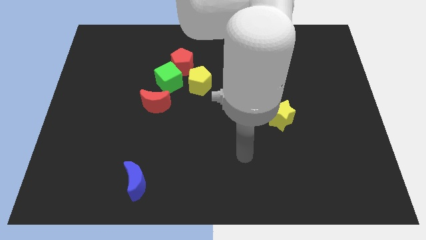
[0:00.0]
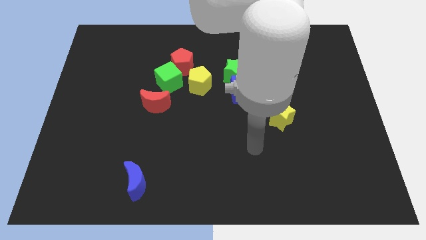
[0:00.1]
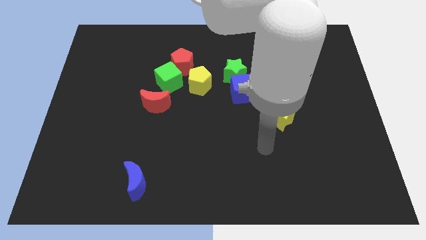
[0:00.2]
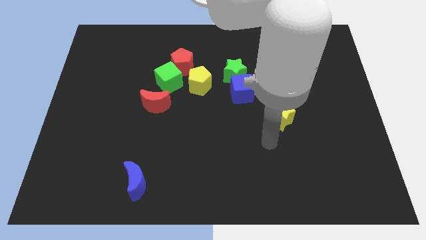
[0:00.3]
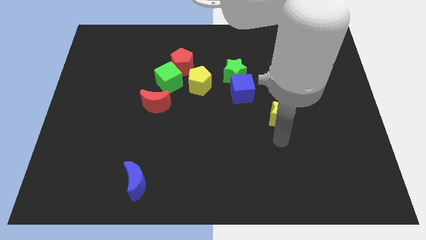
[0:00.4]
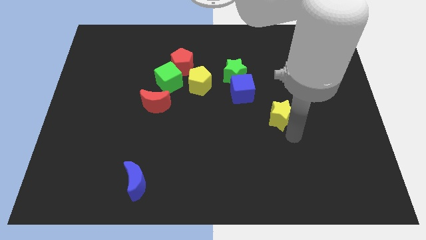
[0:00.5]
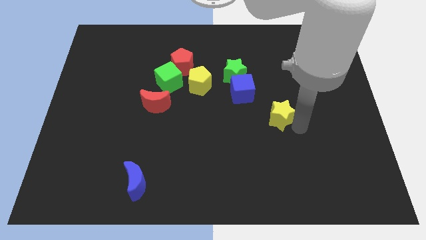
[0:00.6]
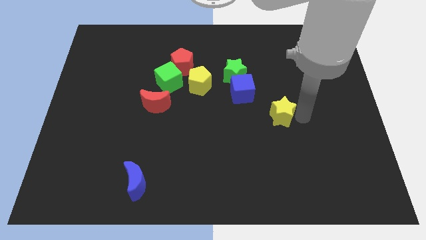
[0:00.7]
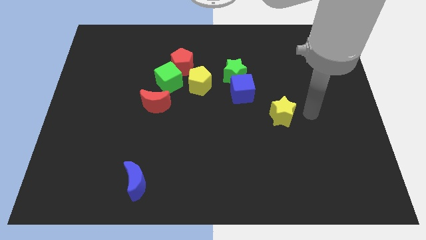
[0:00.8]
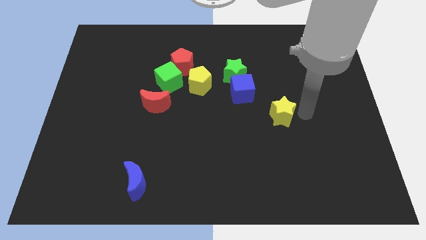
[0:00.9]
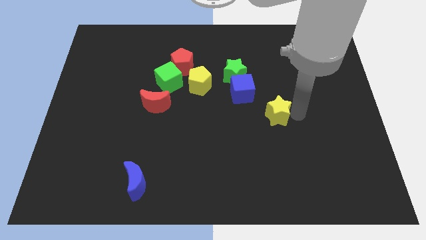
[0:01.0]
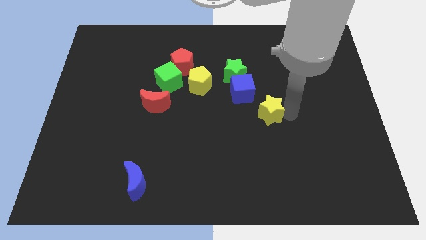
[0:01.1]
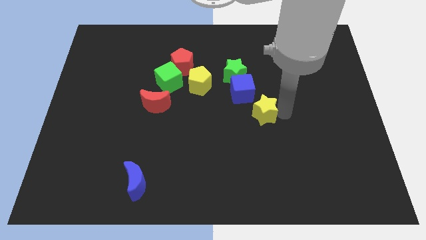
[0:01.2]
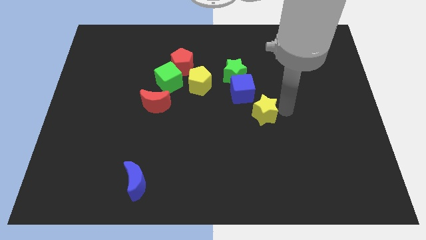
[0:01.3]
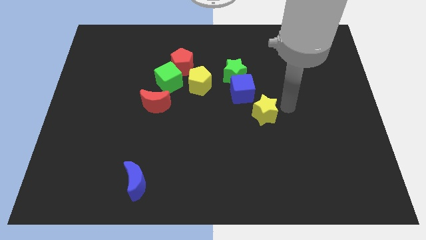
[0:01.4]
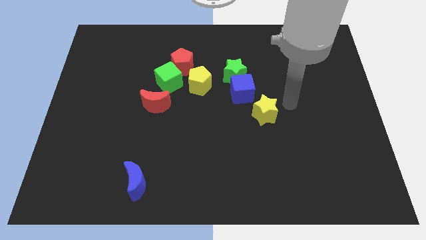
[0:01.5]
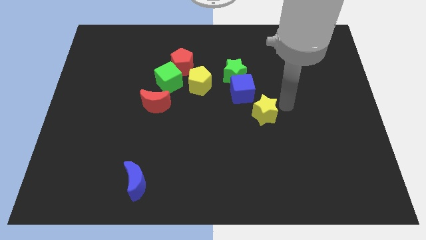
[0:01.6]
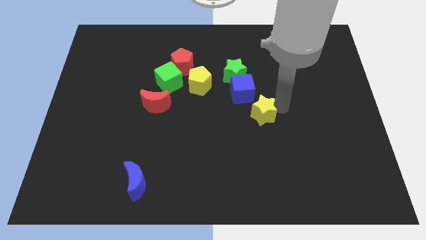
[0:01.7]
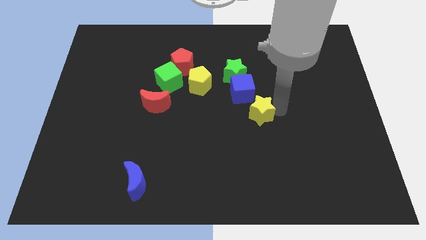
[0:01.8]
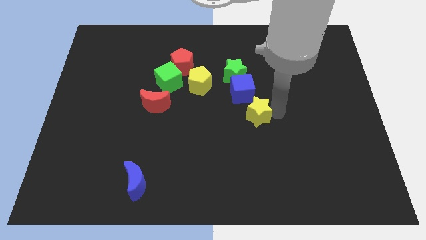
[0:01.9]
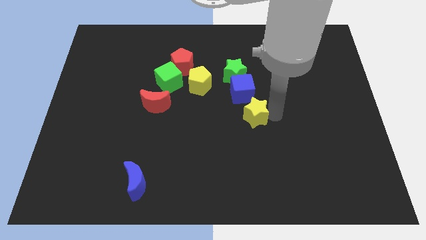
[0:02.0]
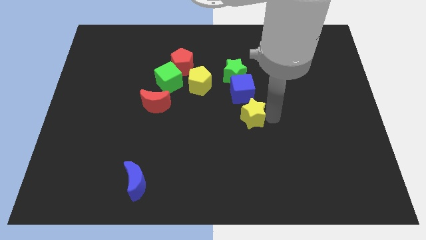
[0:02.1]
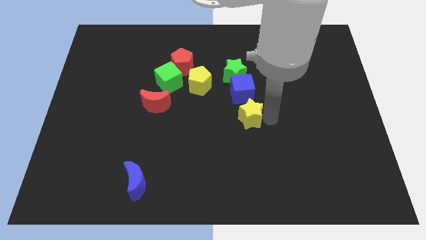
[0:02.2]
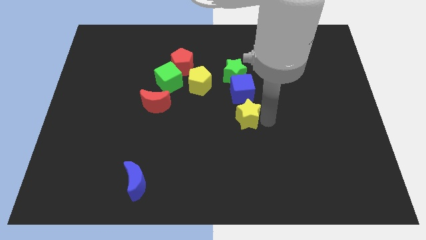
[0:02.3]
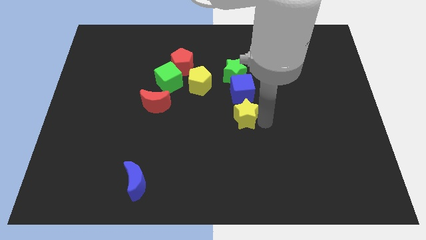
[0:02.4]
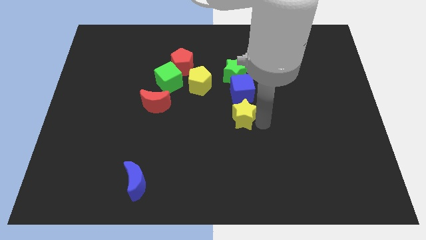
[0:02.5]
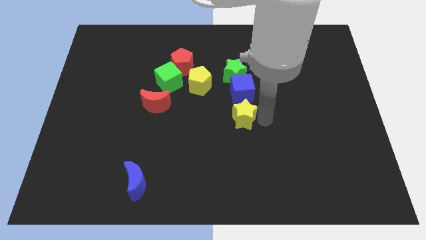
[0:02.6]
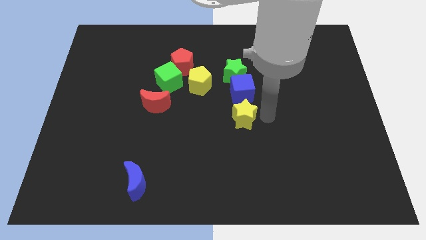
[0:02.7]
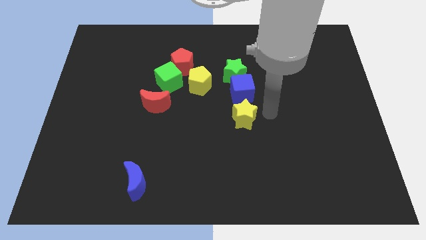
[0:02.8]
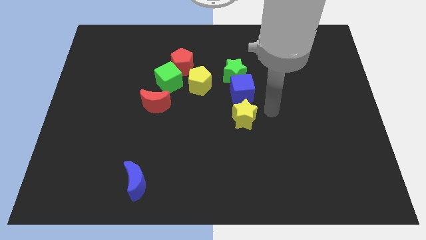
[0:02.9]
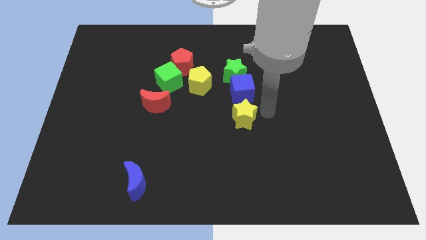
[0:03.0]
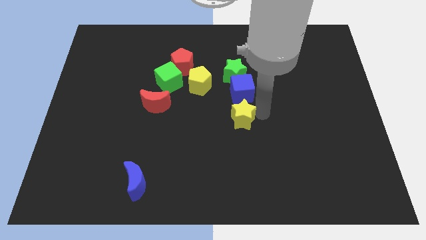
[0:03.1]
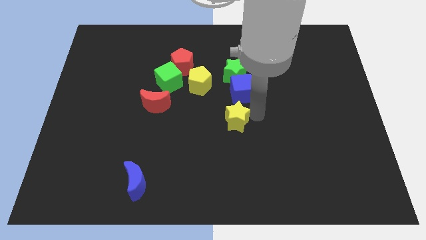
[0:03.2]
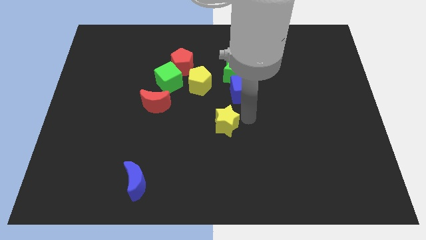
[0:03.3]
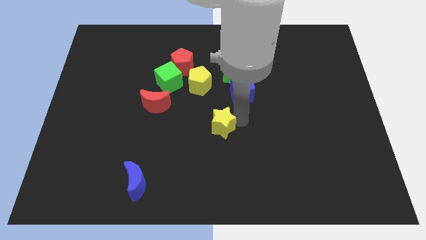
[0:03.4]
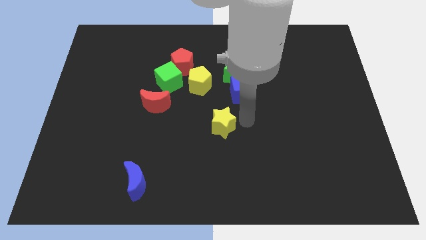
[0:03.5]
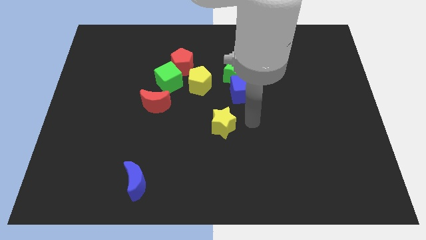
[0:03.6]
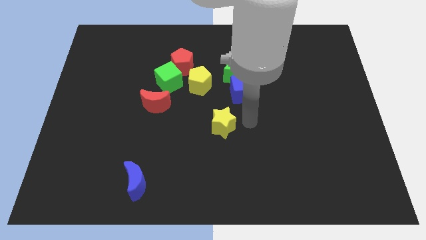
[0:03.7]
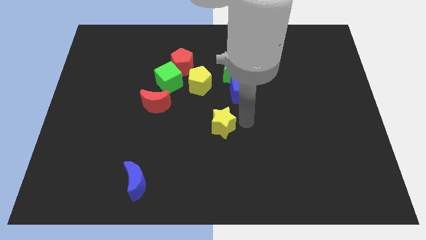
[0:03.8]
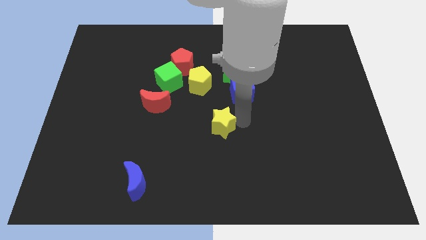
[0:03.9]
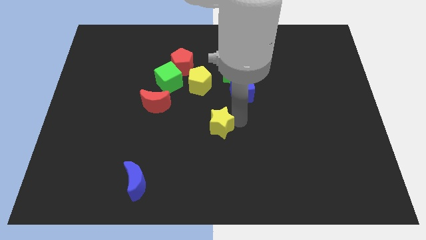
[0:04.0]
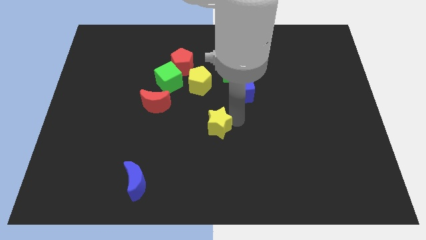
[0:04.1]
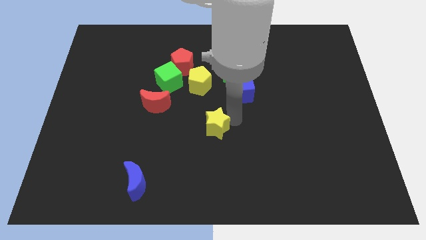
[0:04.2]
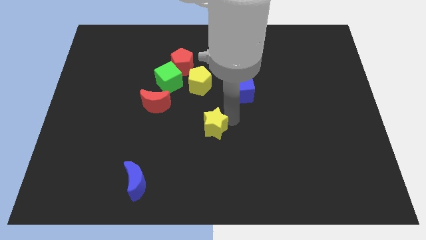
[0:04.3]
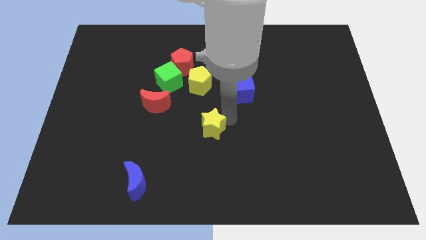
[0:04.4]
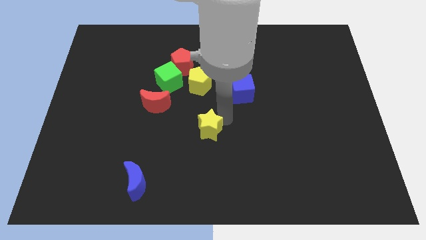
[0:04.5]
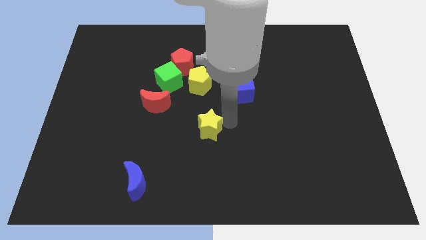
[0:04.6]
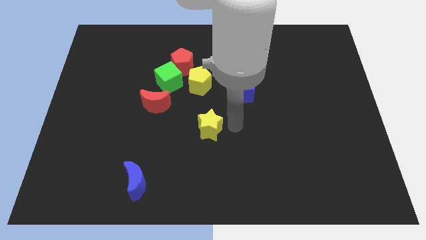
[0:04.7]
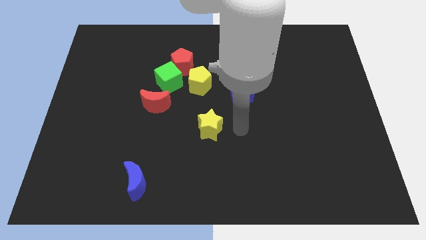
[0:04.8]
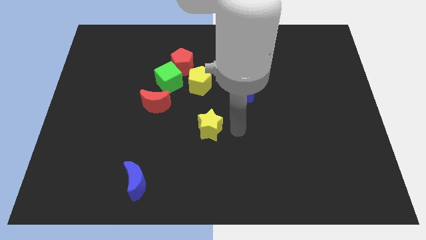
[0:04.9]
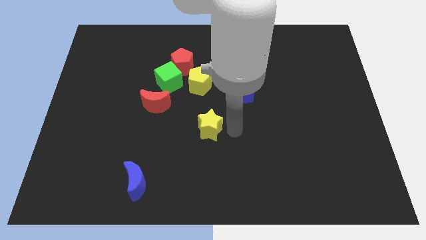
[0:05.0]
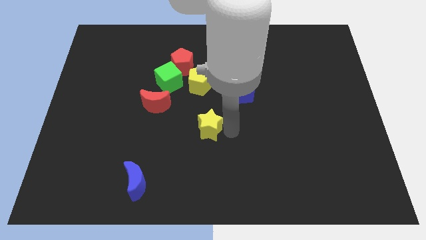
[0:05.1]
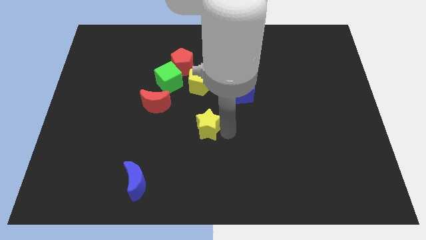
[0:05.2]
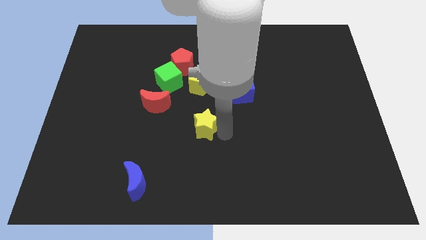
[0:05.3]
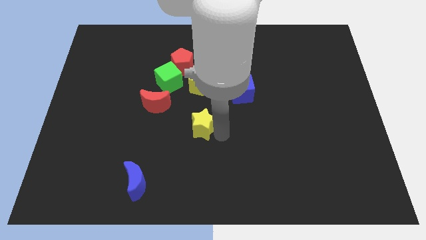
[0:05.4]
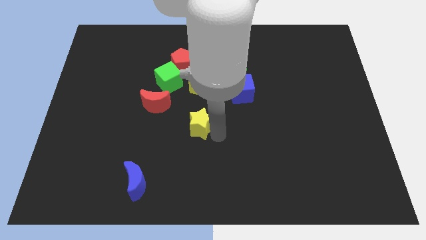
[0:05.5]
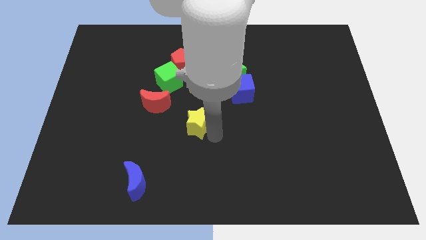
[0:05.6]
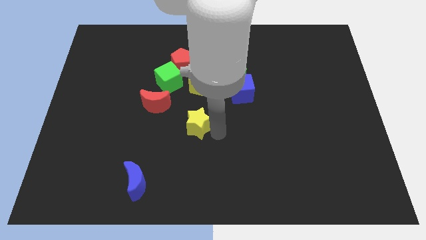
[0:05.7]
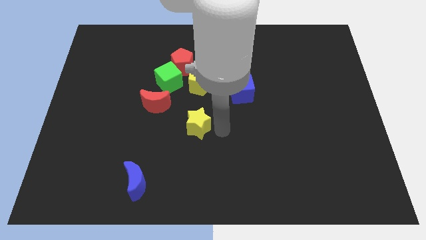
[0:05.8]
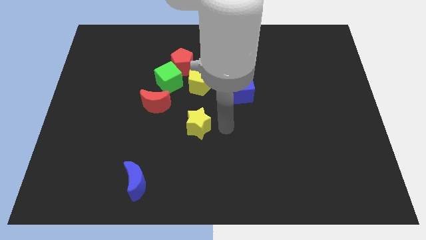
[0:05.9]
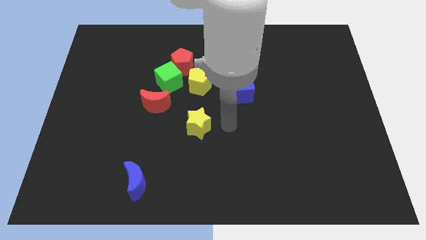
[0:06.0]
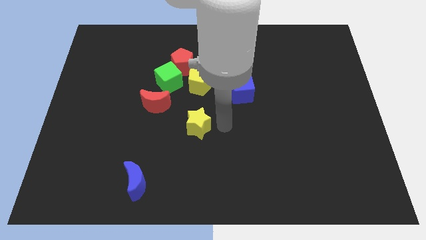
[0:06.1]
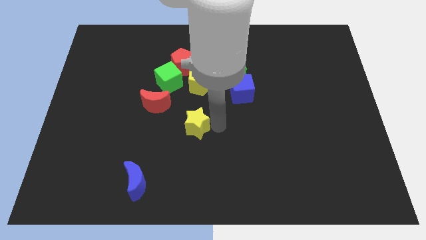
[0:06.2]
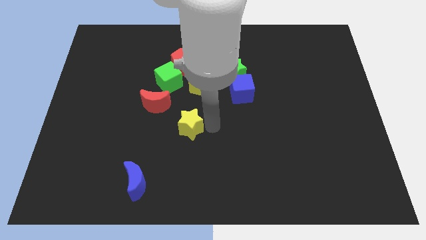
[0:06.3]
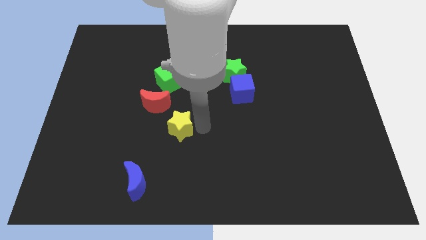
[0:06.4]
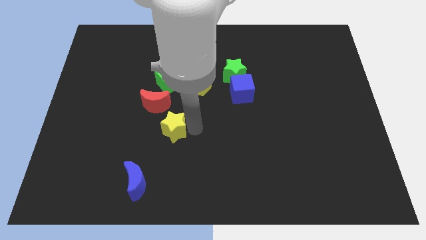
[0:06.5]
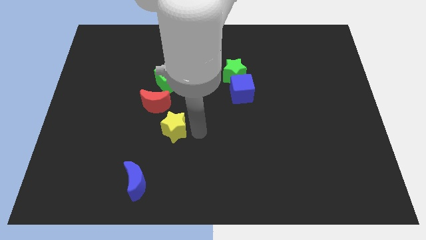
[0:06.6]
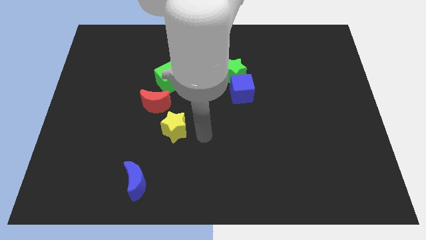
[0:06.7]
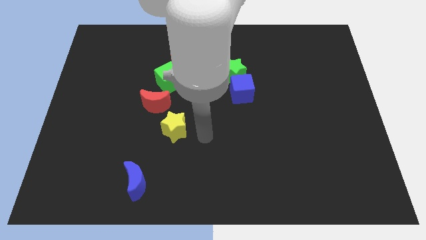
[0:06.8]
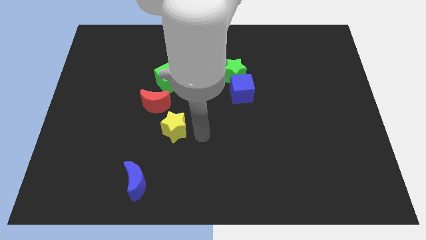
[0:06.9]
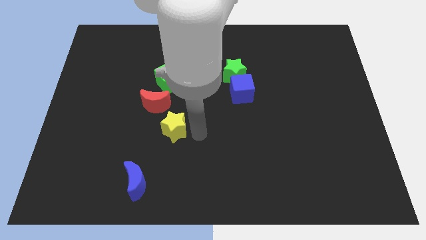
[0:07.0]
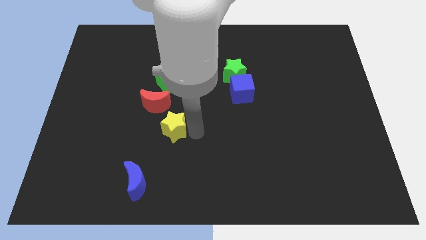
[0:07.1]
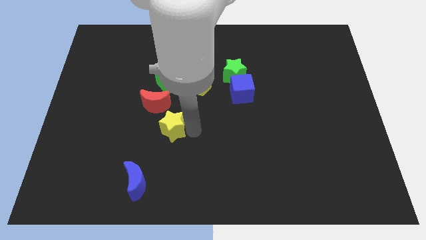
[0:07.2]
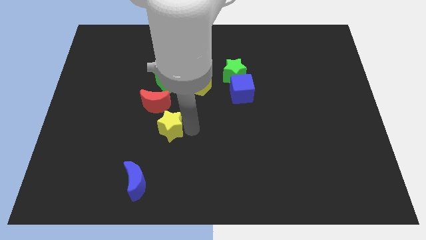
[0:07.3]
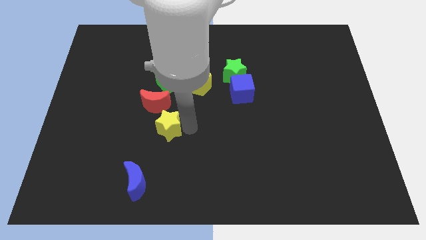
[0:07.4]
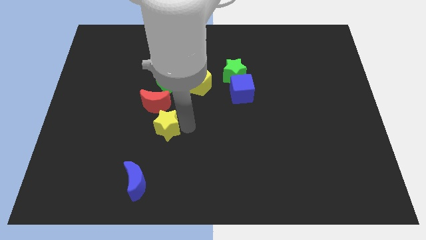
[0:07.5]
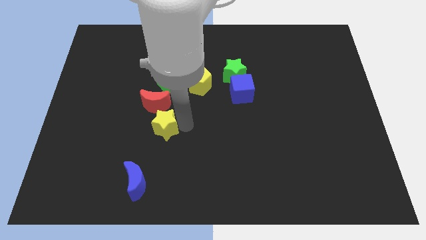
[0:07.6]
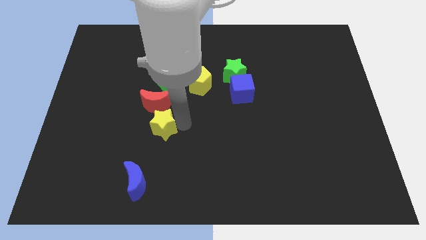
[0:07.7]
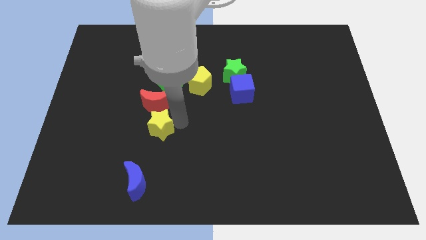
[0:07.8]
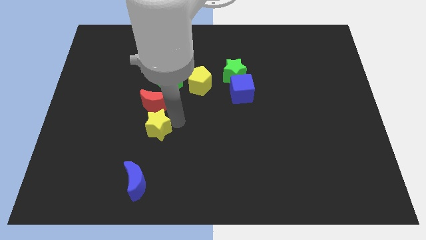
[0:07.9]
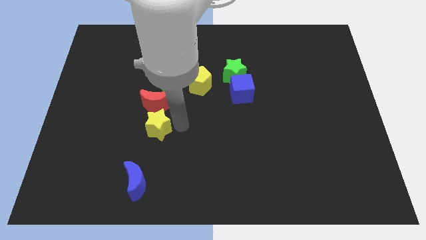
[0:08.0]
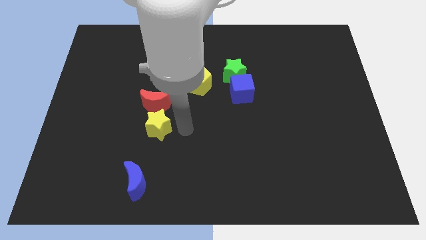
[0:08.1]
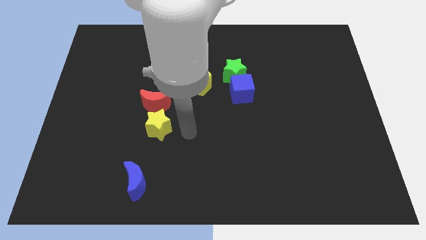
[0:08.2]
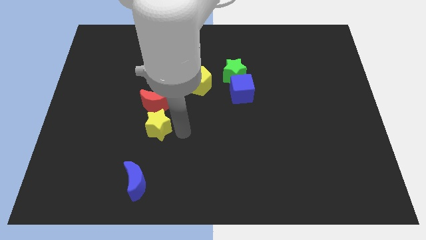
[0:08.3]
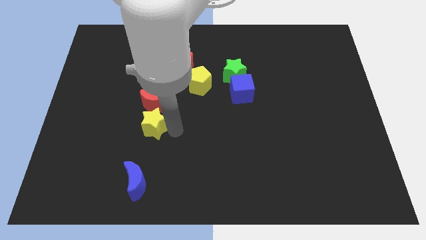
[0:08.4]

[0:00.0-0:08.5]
push the yellow star diagonally down and to the left of the red moon
